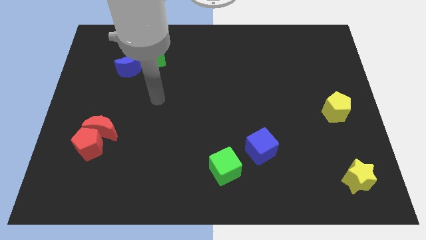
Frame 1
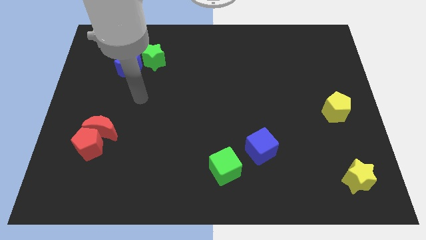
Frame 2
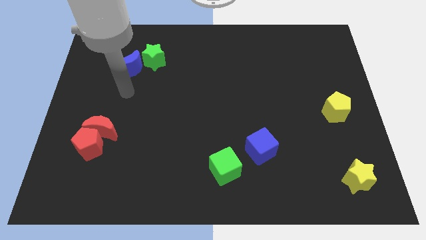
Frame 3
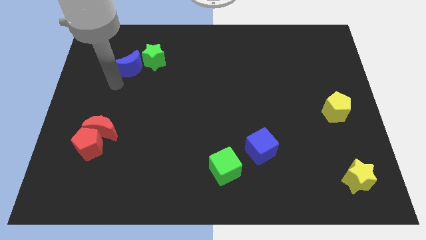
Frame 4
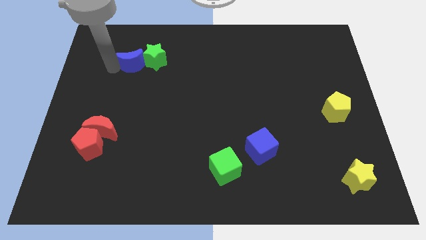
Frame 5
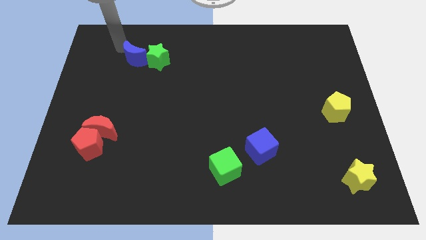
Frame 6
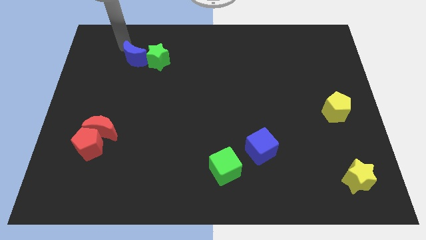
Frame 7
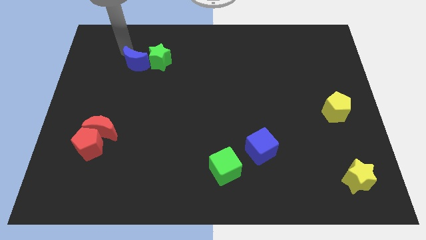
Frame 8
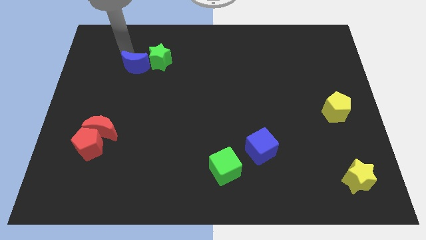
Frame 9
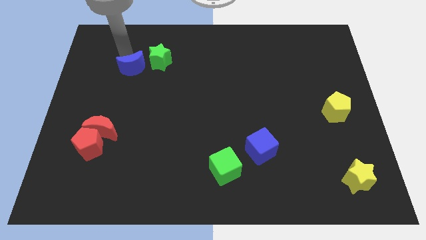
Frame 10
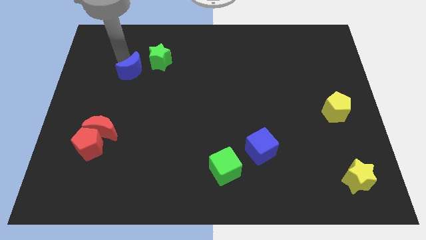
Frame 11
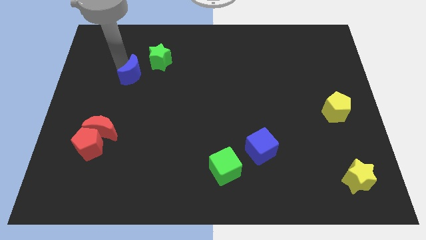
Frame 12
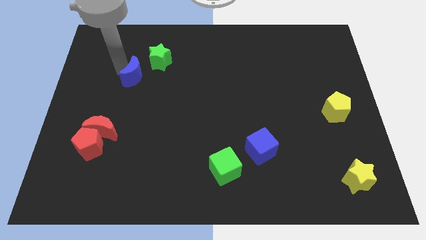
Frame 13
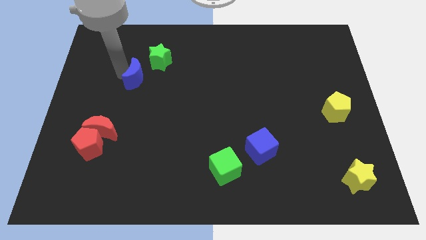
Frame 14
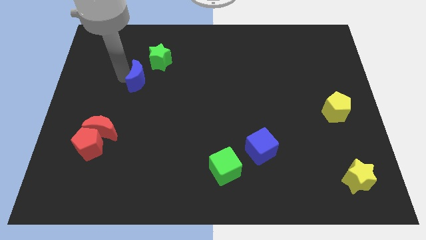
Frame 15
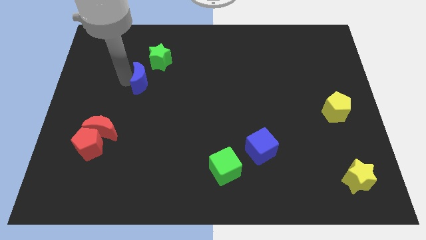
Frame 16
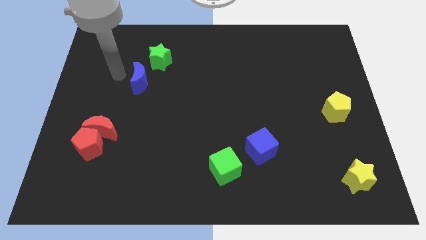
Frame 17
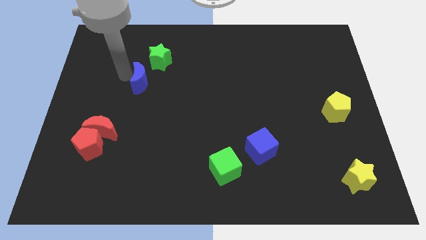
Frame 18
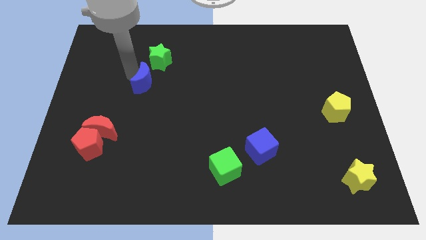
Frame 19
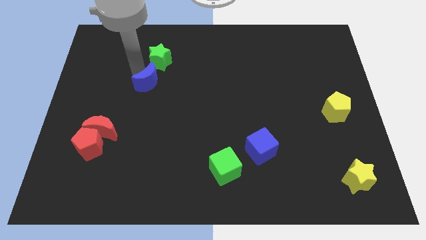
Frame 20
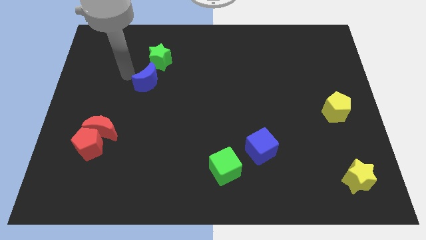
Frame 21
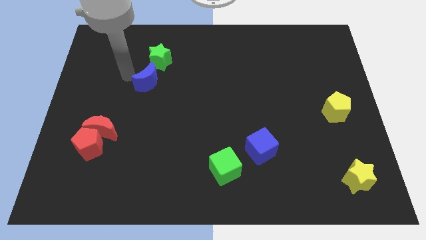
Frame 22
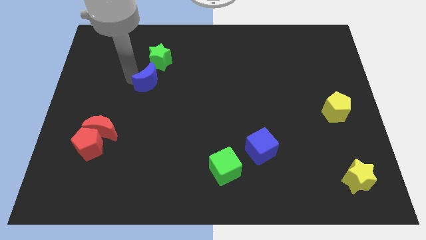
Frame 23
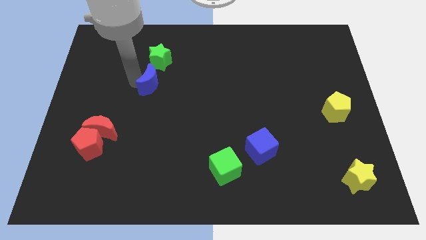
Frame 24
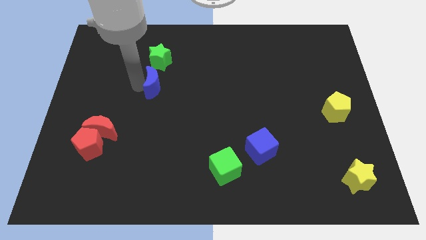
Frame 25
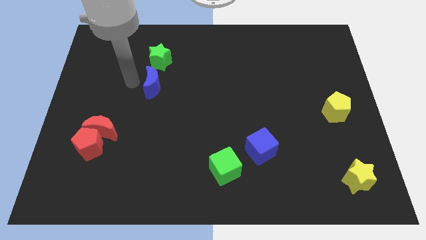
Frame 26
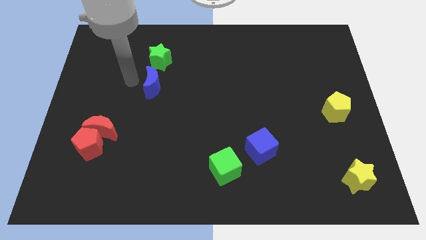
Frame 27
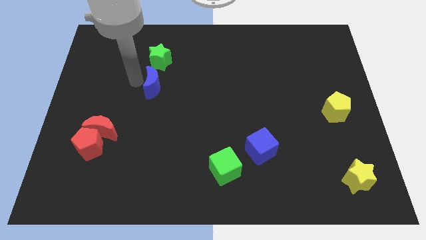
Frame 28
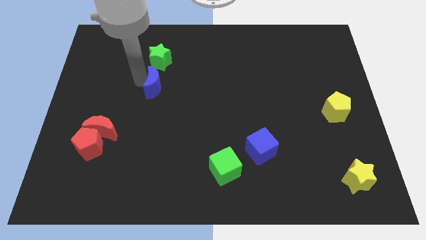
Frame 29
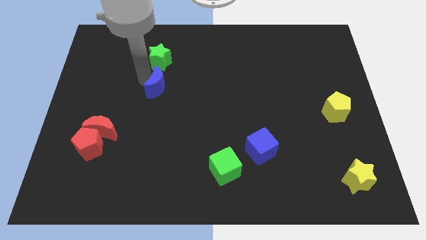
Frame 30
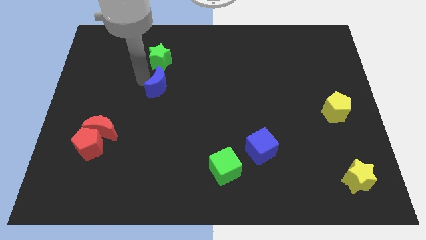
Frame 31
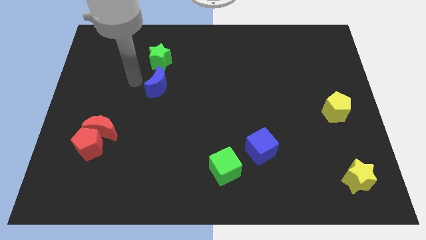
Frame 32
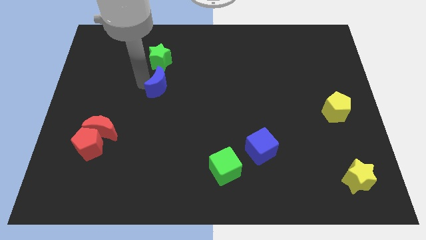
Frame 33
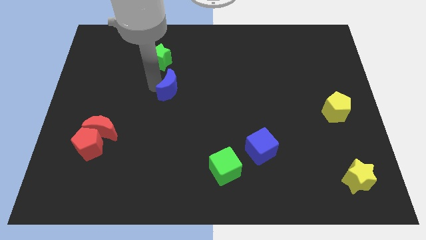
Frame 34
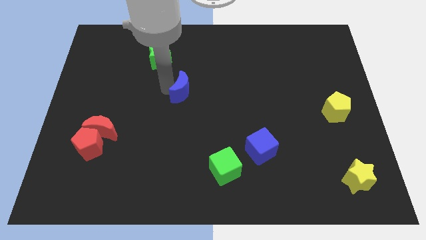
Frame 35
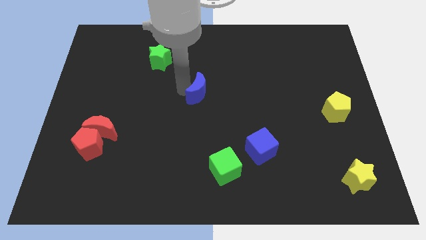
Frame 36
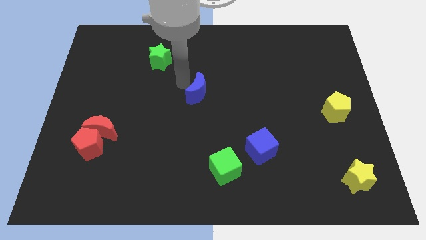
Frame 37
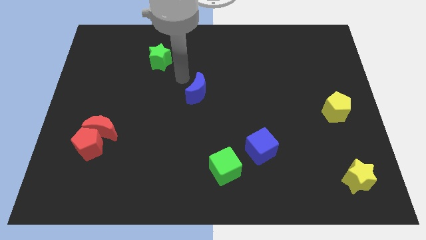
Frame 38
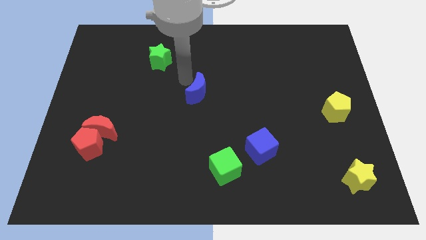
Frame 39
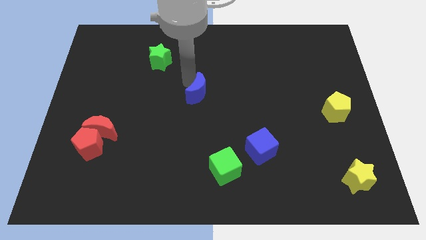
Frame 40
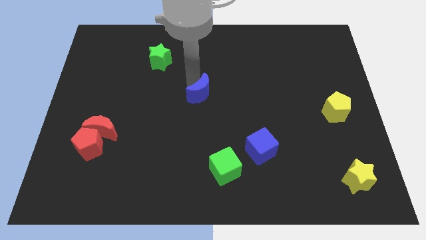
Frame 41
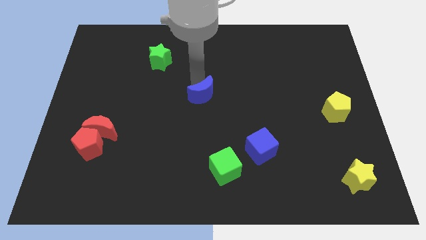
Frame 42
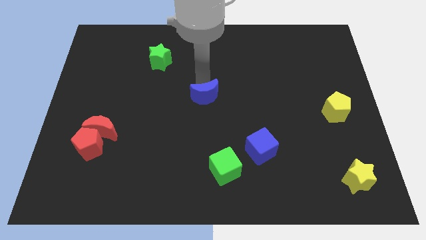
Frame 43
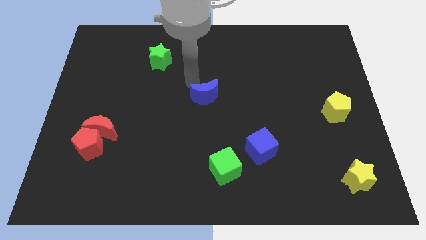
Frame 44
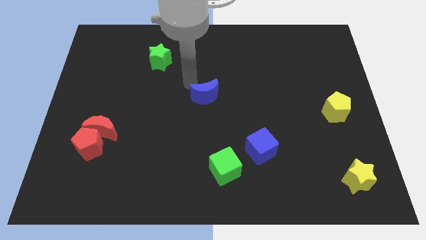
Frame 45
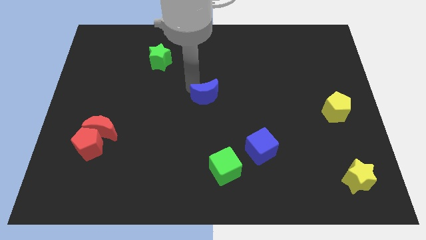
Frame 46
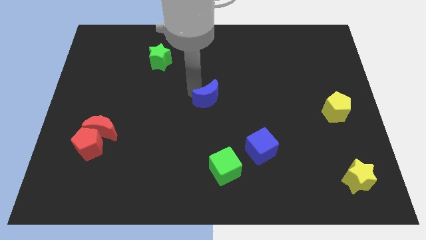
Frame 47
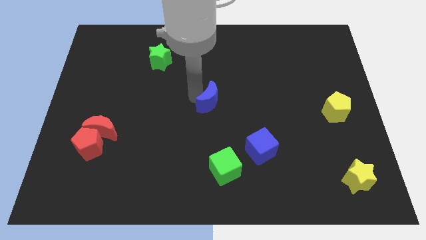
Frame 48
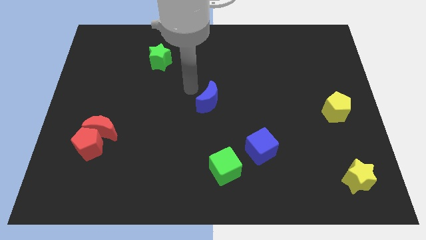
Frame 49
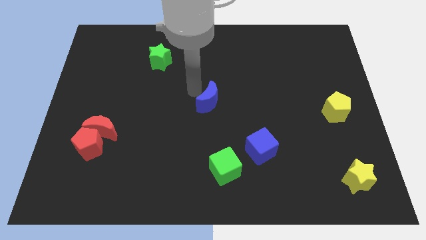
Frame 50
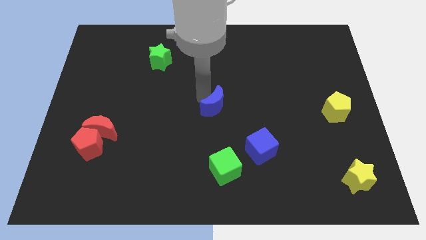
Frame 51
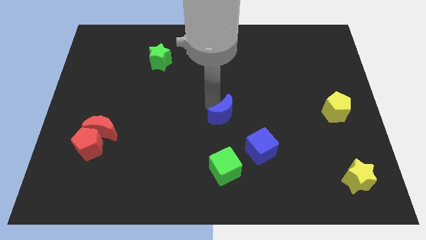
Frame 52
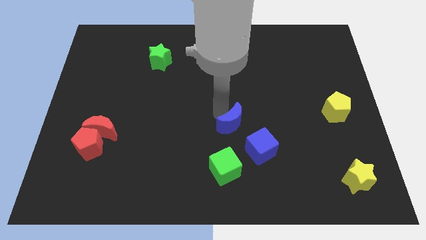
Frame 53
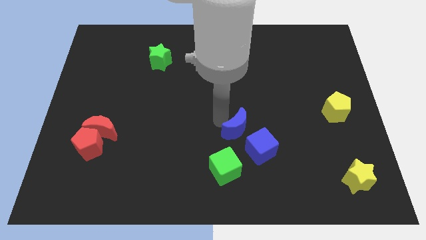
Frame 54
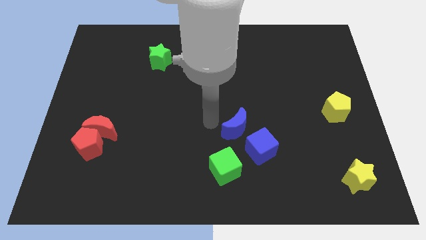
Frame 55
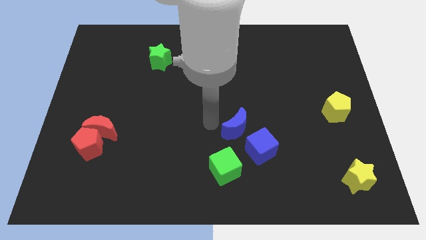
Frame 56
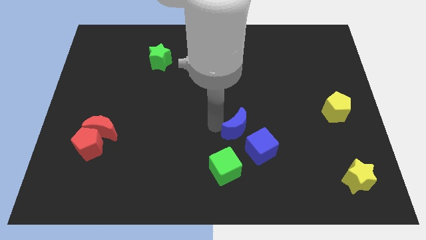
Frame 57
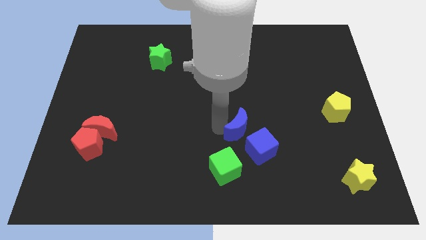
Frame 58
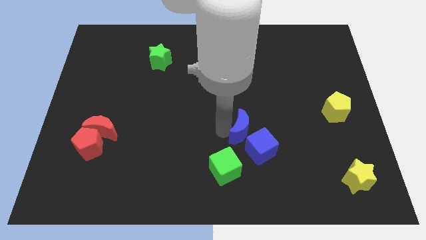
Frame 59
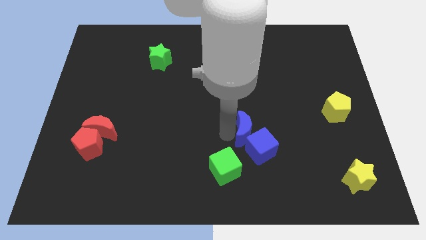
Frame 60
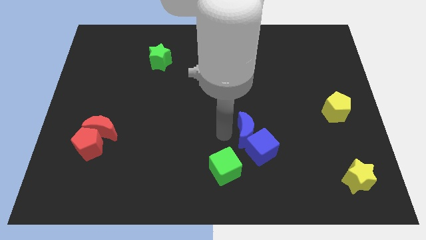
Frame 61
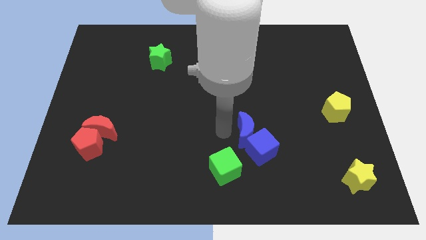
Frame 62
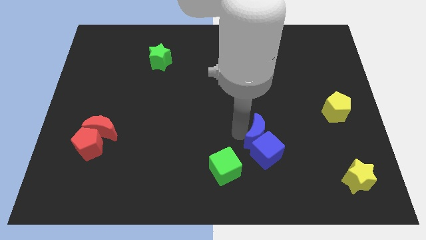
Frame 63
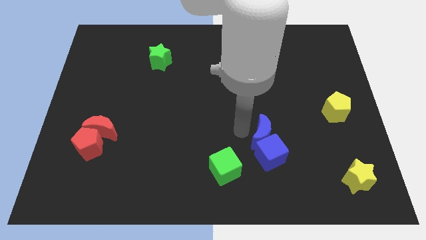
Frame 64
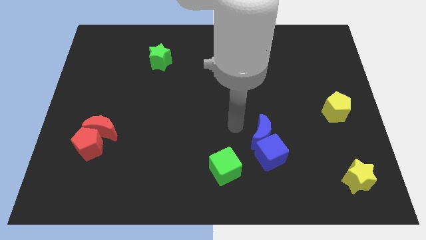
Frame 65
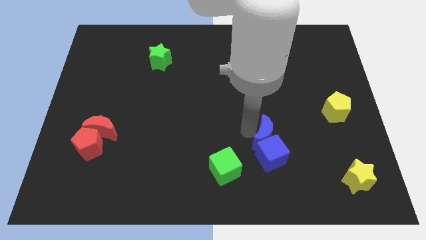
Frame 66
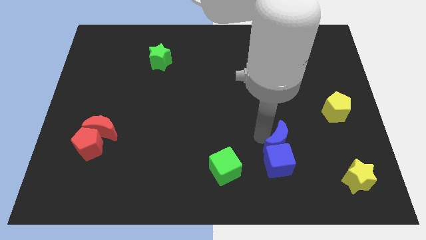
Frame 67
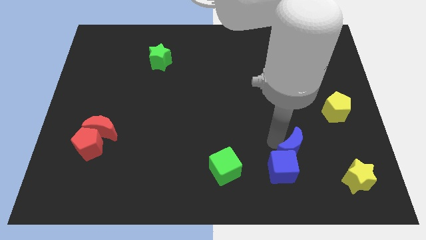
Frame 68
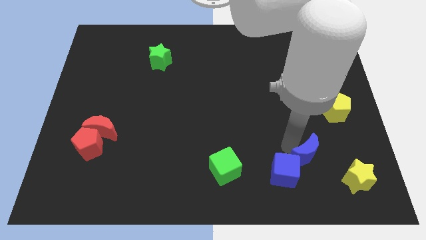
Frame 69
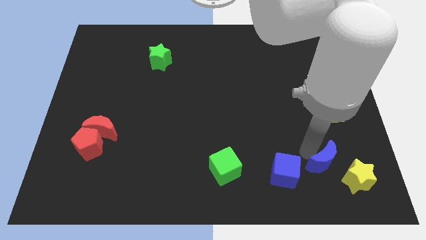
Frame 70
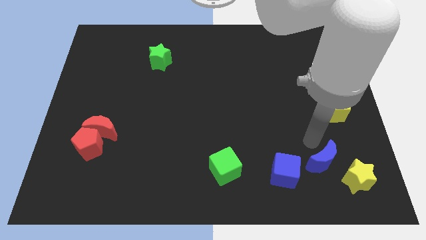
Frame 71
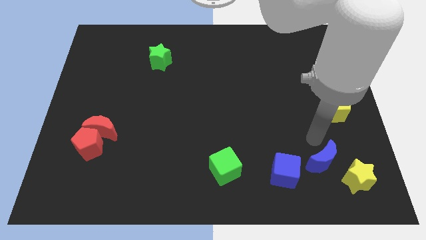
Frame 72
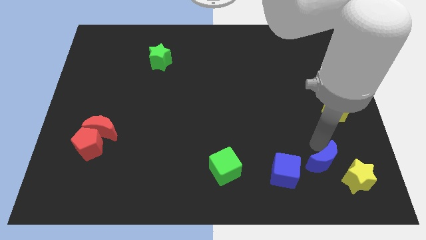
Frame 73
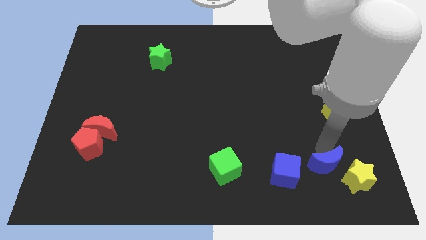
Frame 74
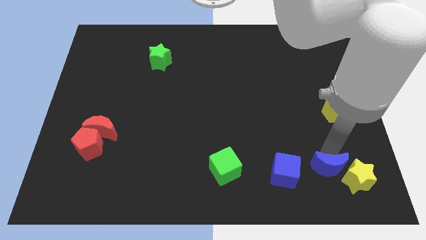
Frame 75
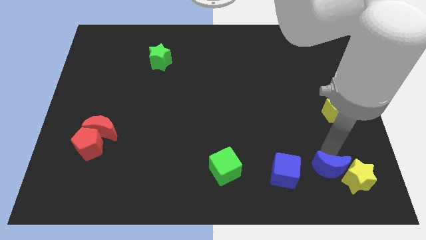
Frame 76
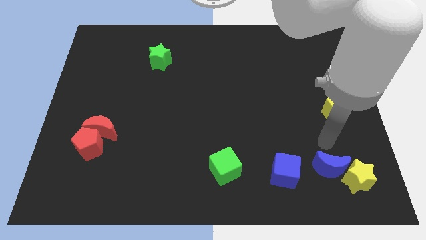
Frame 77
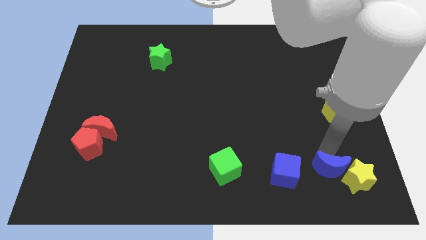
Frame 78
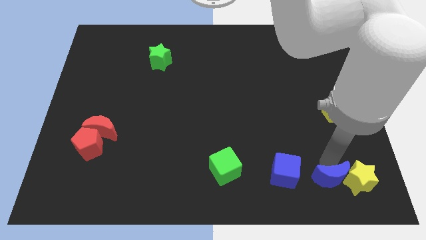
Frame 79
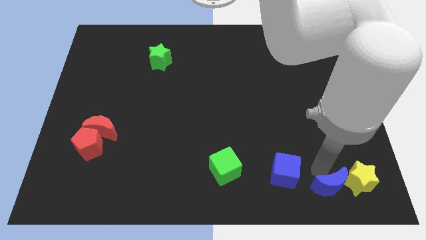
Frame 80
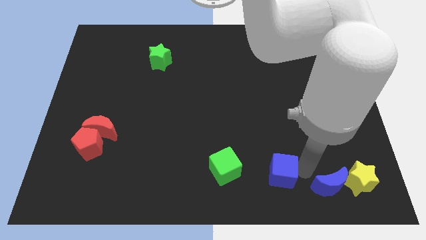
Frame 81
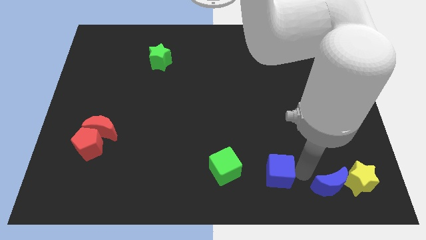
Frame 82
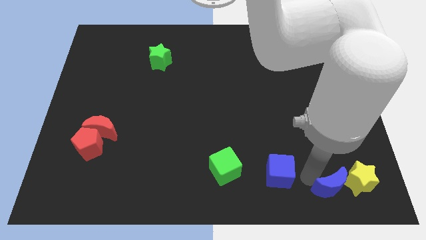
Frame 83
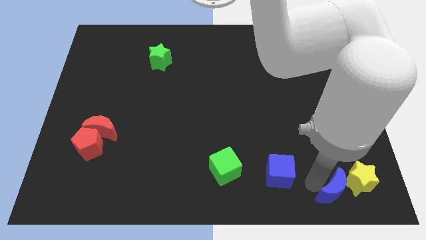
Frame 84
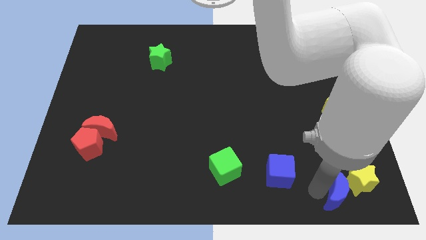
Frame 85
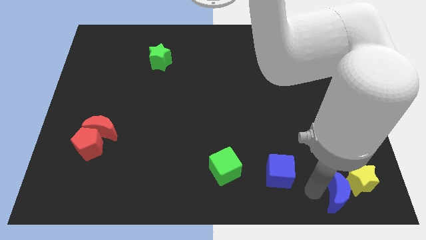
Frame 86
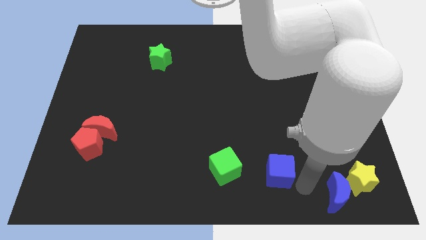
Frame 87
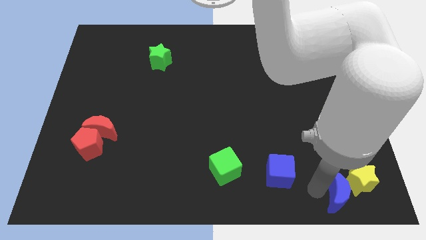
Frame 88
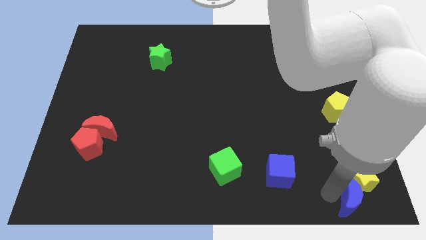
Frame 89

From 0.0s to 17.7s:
put the blue moon to the bottom right
